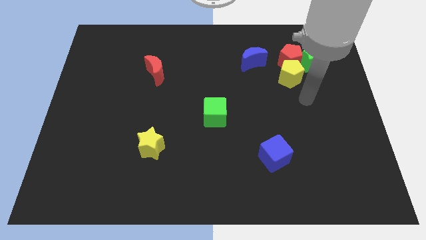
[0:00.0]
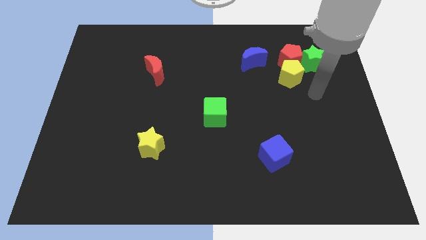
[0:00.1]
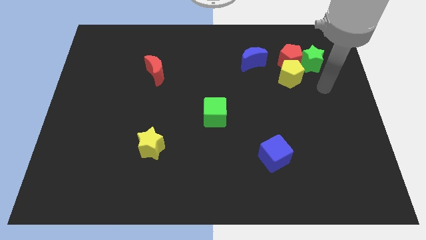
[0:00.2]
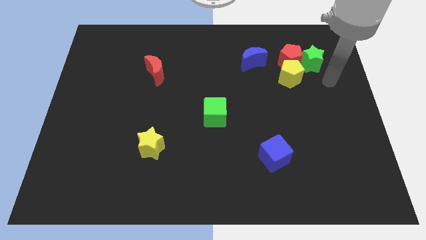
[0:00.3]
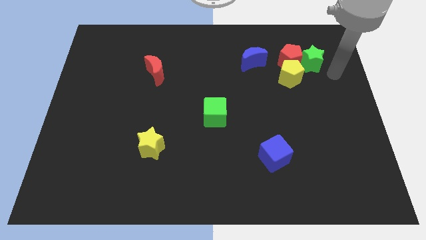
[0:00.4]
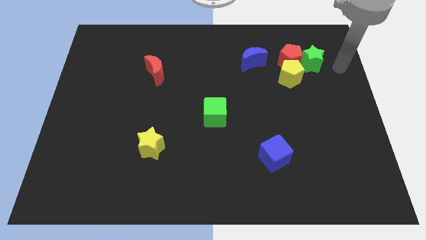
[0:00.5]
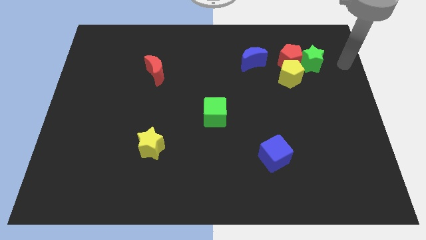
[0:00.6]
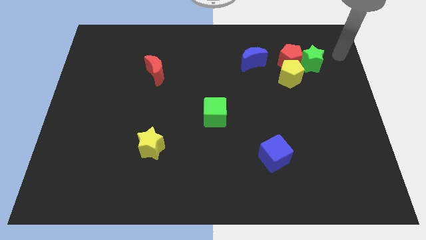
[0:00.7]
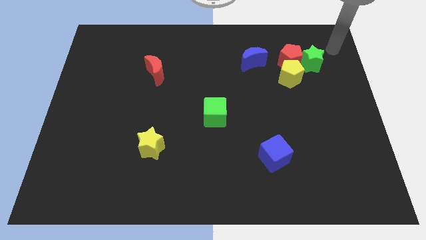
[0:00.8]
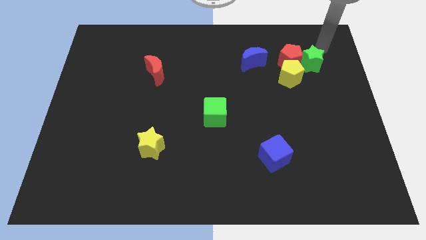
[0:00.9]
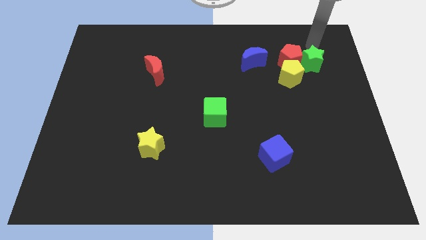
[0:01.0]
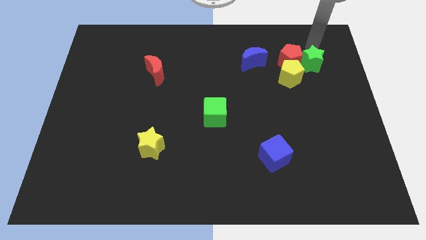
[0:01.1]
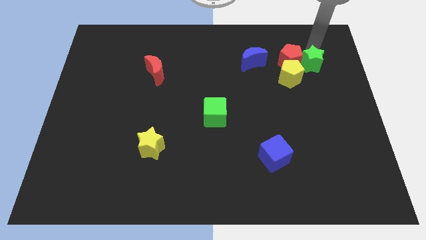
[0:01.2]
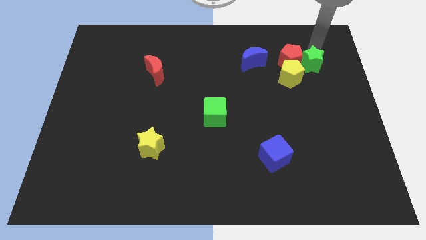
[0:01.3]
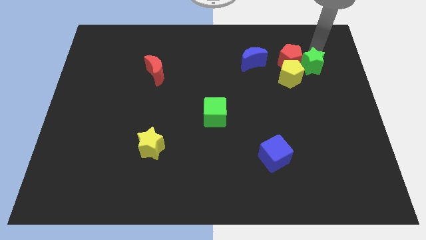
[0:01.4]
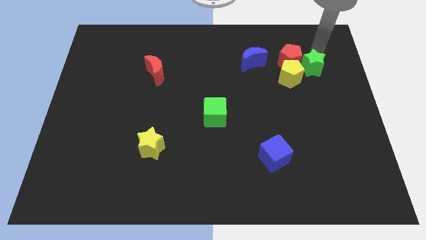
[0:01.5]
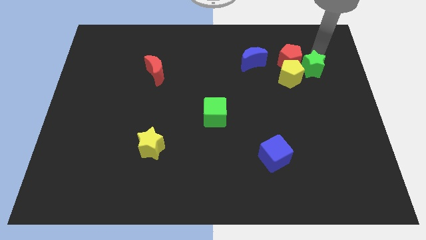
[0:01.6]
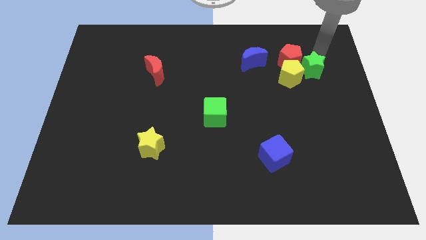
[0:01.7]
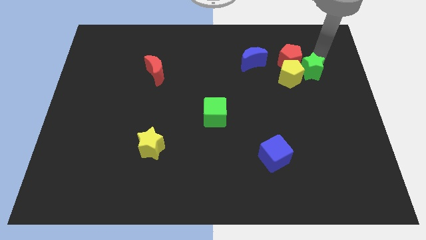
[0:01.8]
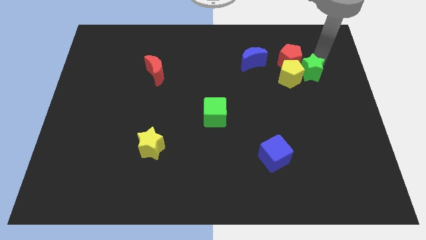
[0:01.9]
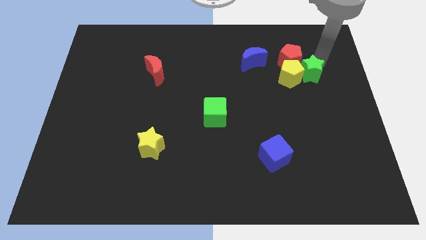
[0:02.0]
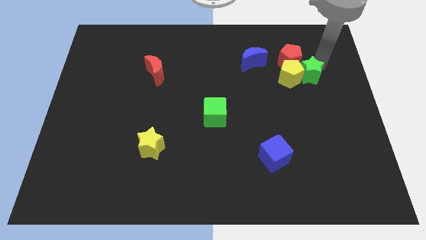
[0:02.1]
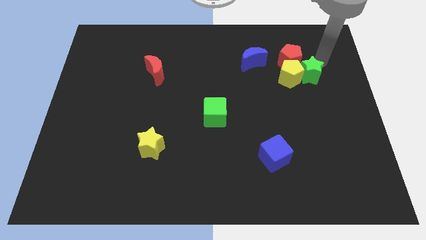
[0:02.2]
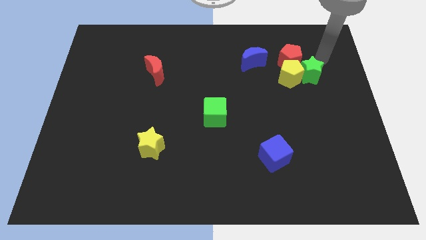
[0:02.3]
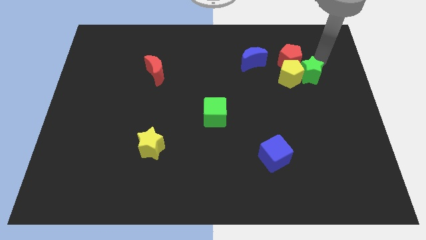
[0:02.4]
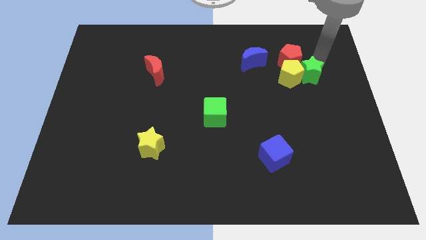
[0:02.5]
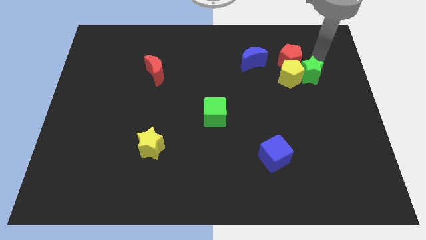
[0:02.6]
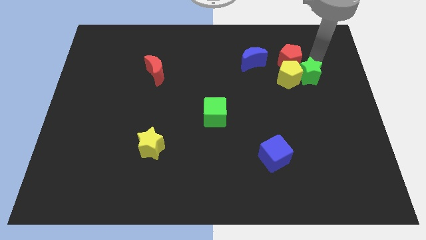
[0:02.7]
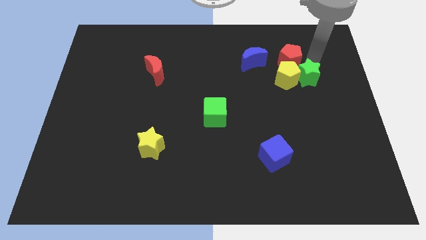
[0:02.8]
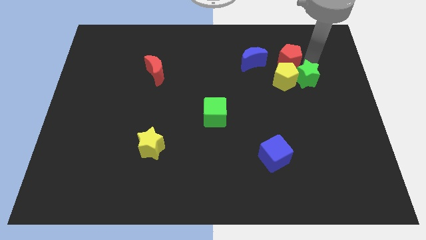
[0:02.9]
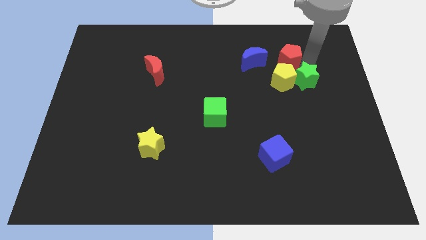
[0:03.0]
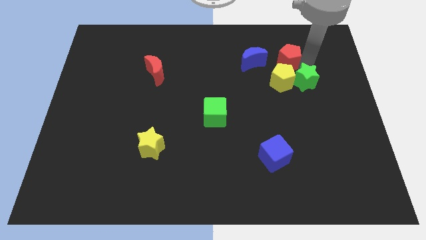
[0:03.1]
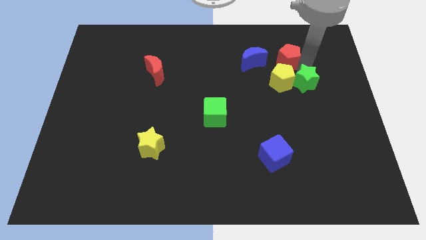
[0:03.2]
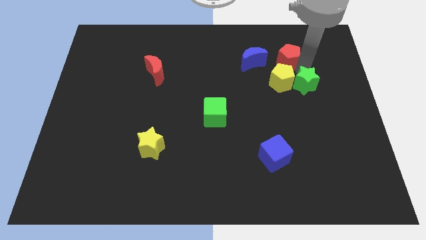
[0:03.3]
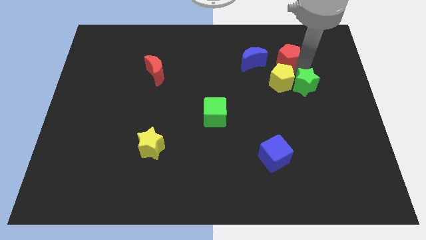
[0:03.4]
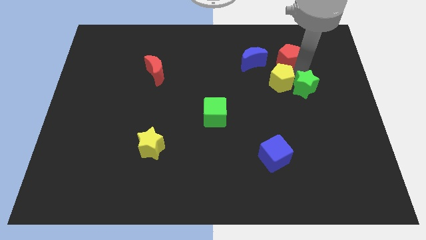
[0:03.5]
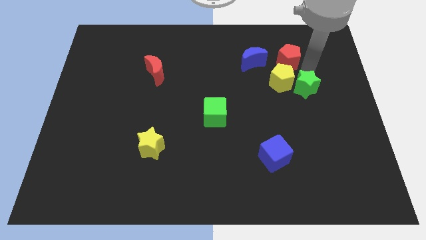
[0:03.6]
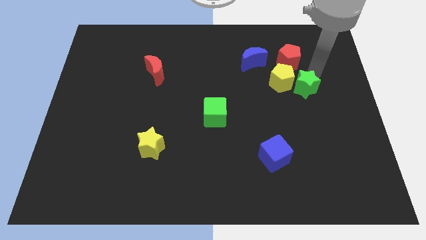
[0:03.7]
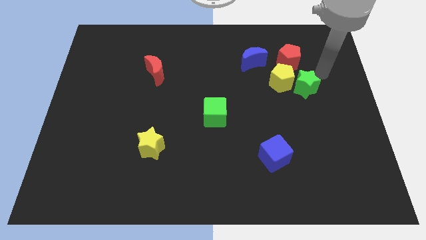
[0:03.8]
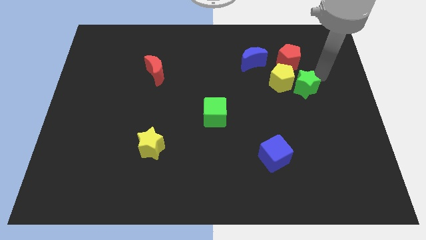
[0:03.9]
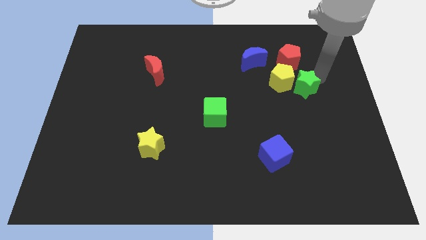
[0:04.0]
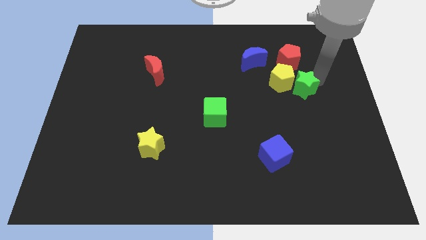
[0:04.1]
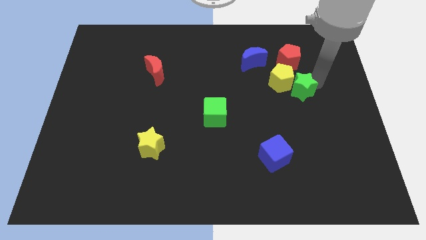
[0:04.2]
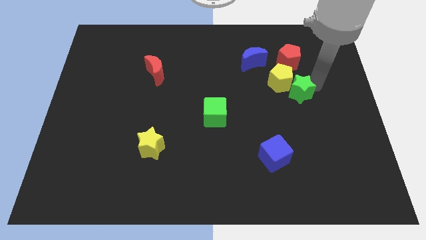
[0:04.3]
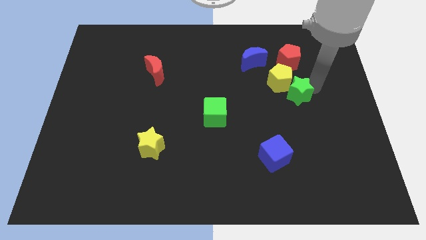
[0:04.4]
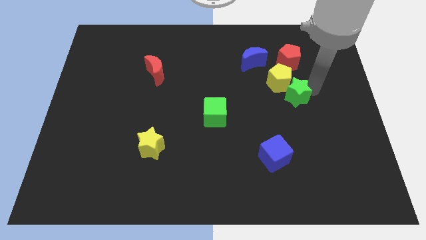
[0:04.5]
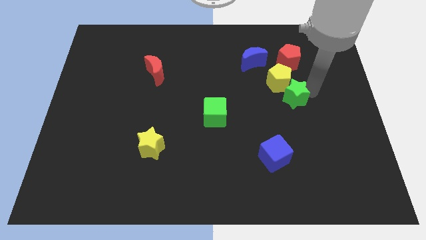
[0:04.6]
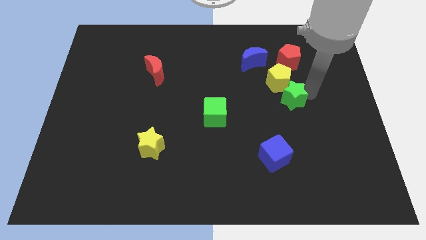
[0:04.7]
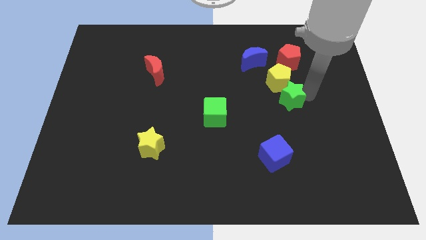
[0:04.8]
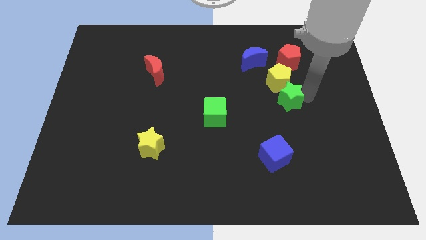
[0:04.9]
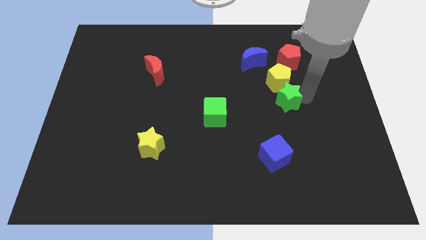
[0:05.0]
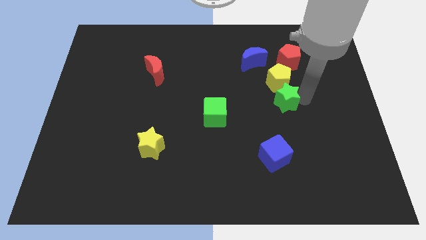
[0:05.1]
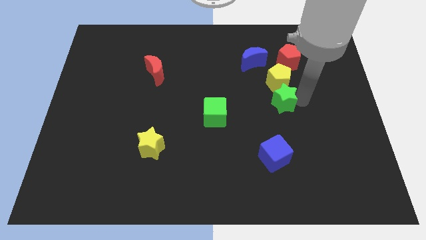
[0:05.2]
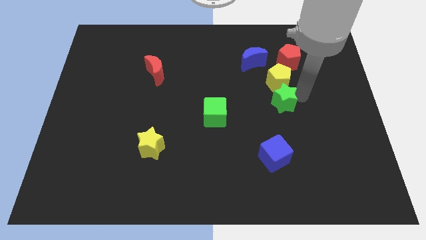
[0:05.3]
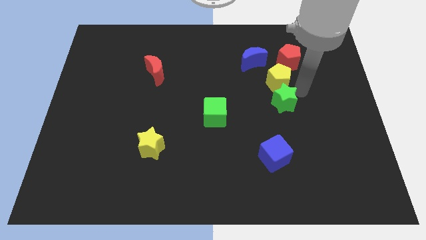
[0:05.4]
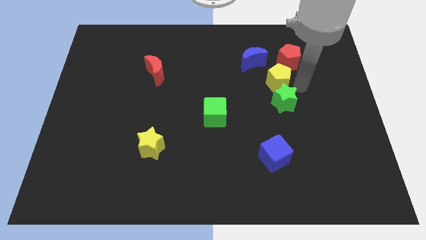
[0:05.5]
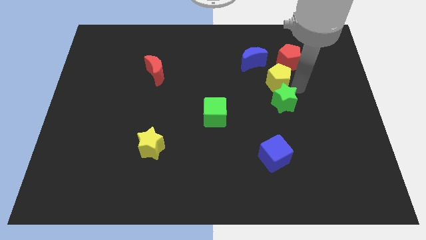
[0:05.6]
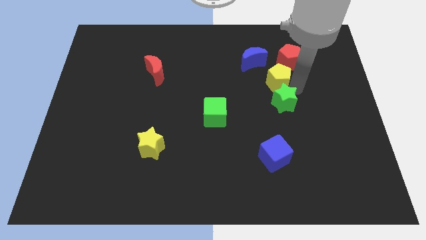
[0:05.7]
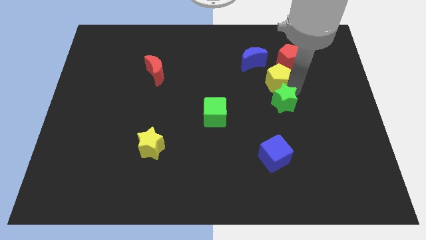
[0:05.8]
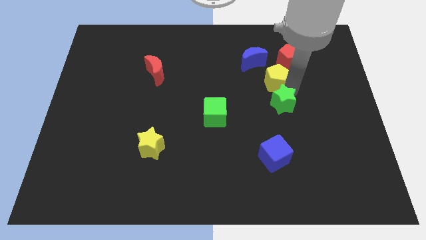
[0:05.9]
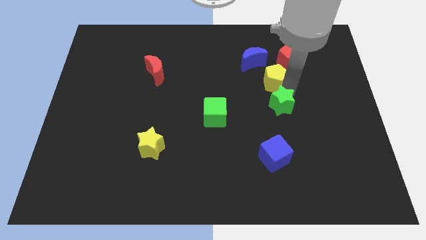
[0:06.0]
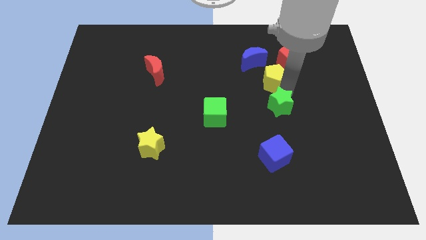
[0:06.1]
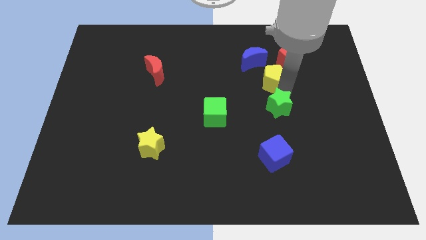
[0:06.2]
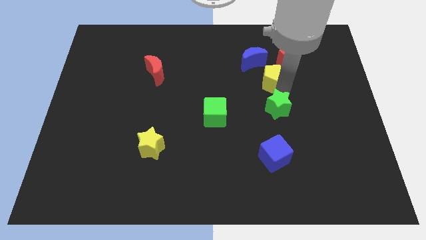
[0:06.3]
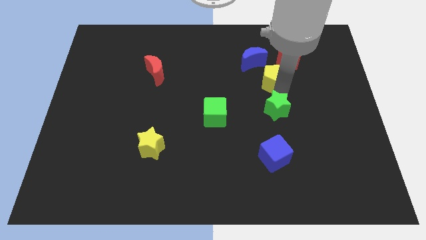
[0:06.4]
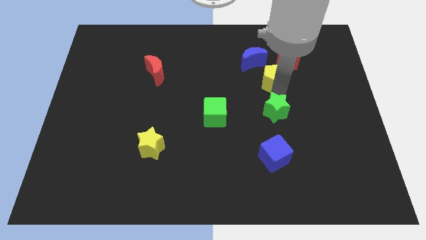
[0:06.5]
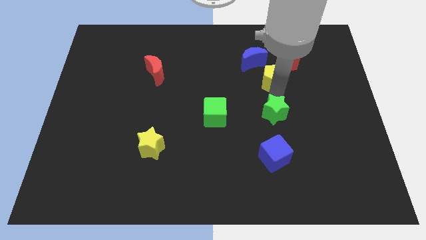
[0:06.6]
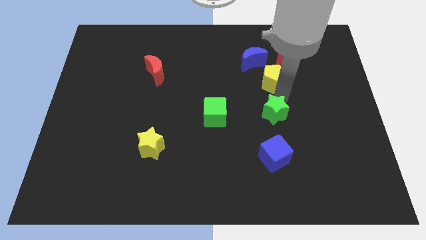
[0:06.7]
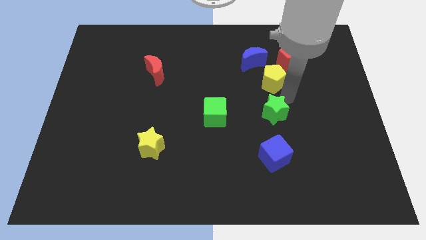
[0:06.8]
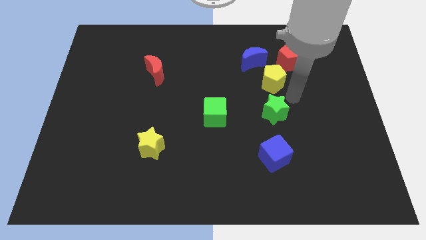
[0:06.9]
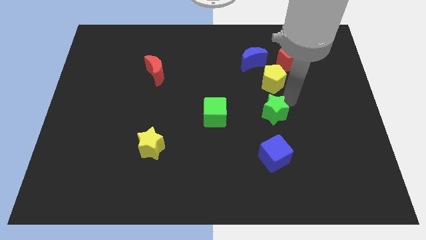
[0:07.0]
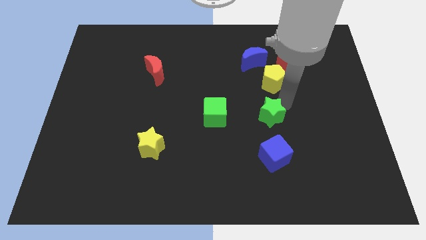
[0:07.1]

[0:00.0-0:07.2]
slide the green star diagonally downwards and to the left

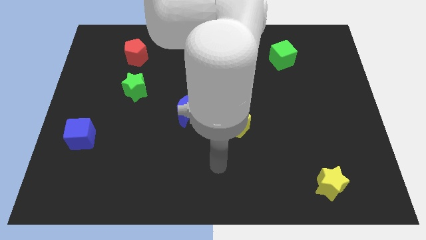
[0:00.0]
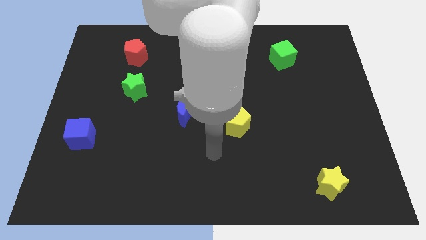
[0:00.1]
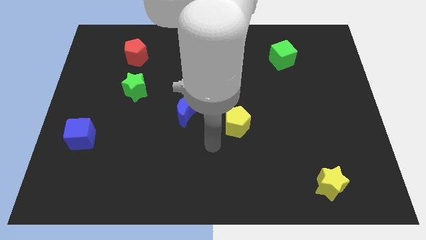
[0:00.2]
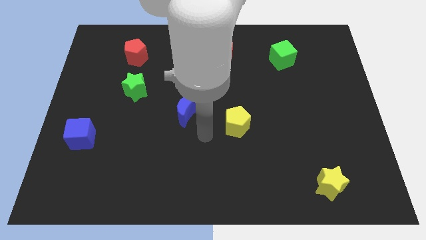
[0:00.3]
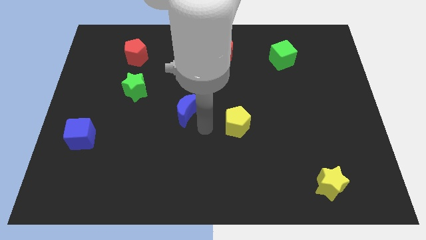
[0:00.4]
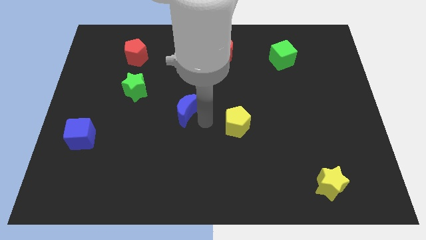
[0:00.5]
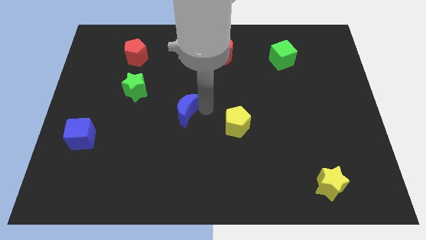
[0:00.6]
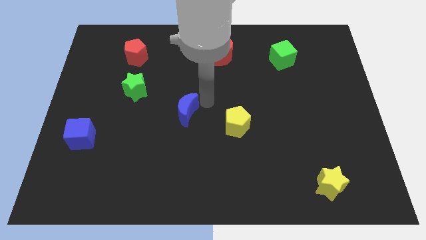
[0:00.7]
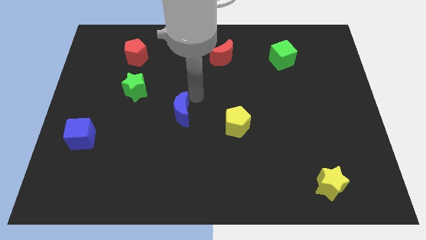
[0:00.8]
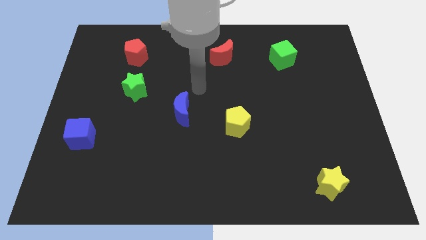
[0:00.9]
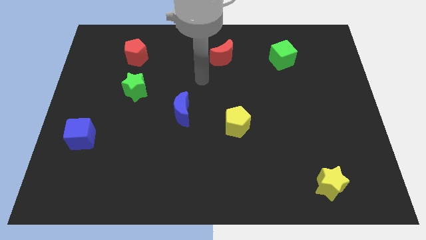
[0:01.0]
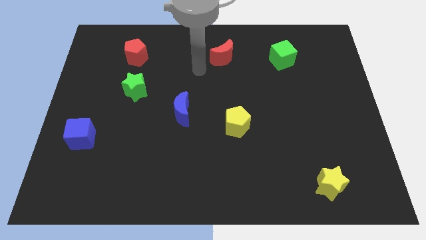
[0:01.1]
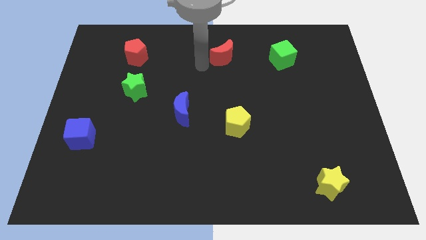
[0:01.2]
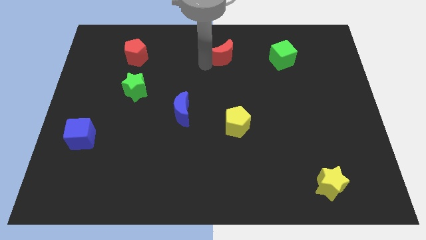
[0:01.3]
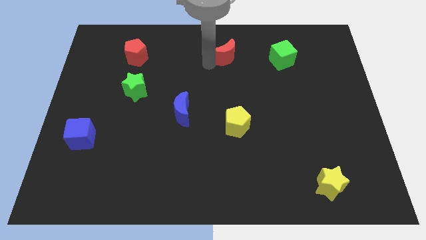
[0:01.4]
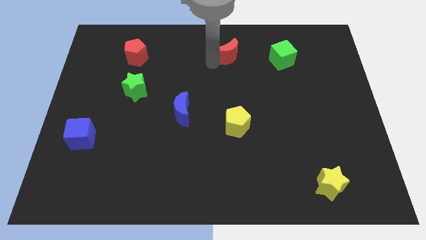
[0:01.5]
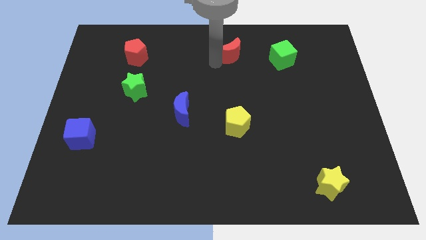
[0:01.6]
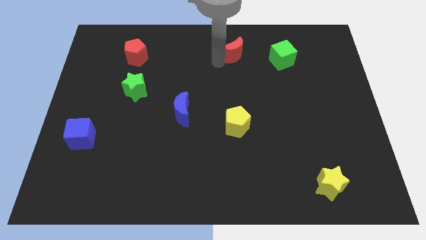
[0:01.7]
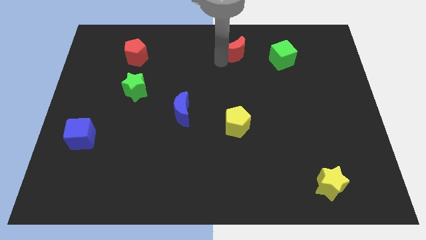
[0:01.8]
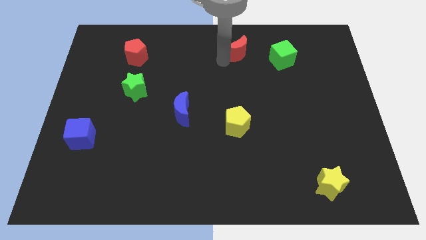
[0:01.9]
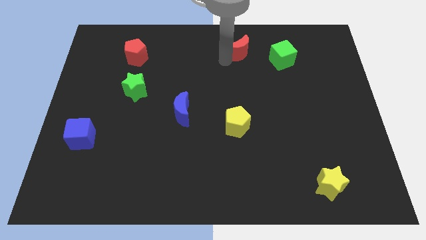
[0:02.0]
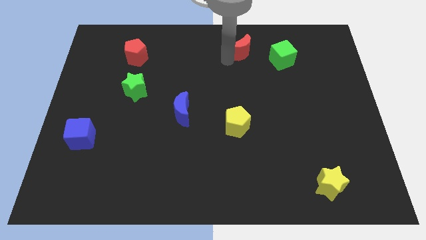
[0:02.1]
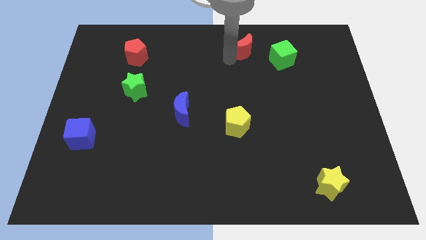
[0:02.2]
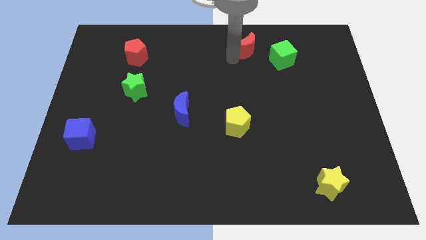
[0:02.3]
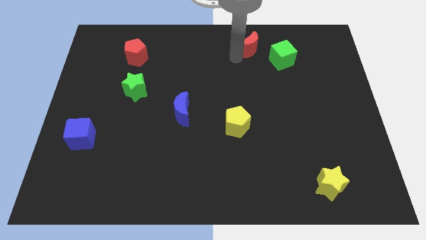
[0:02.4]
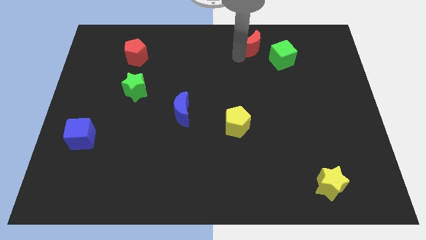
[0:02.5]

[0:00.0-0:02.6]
slightly slide the red moon right
